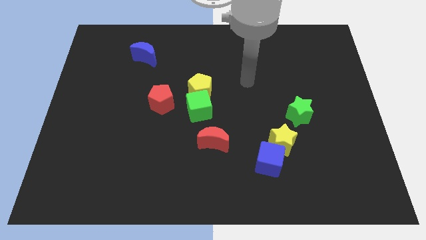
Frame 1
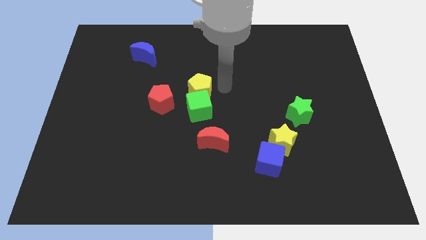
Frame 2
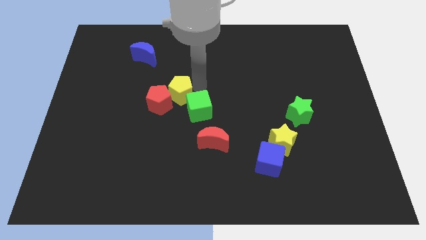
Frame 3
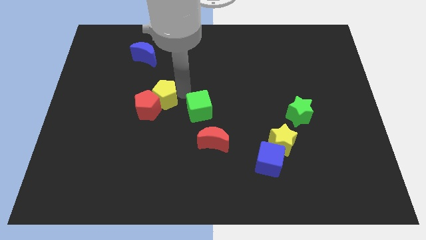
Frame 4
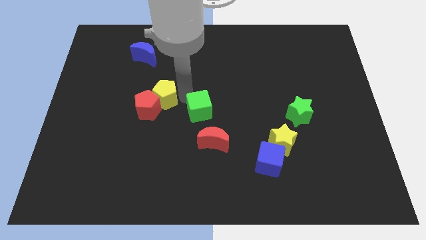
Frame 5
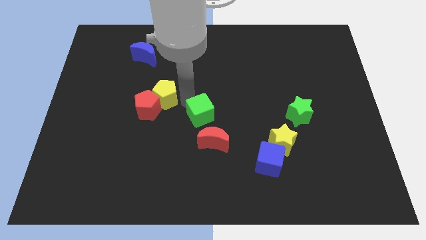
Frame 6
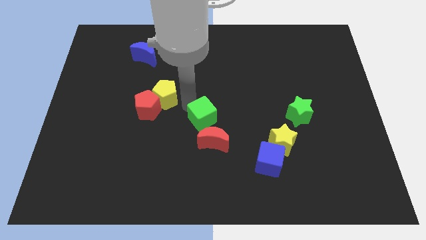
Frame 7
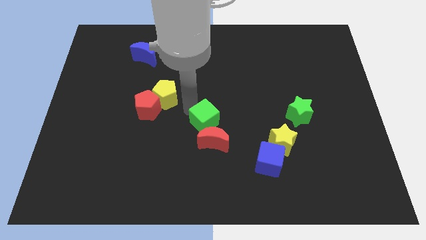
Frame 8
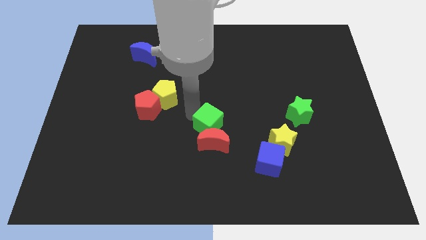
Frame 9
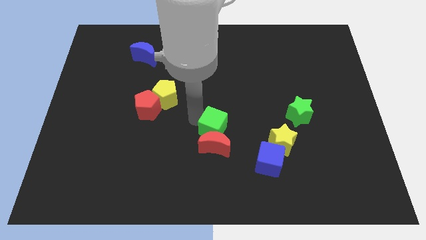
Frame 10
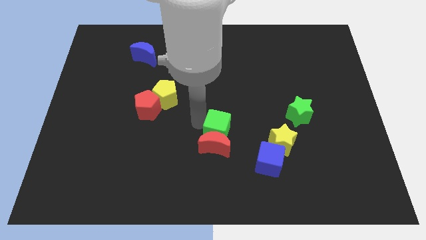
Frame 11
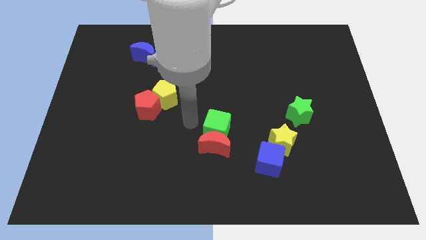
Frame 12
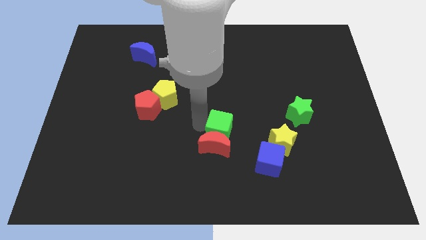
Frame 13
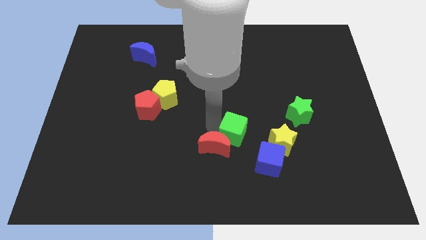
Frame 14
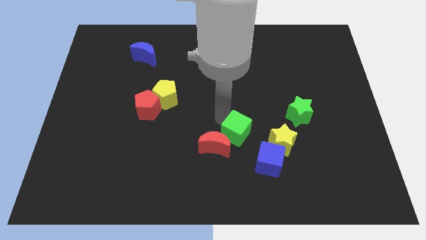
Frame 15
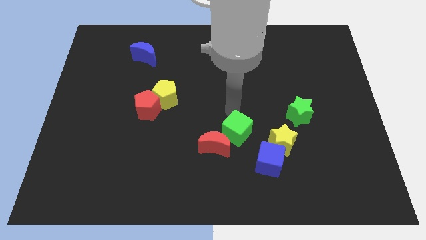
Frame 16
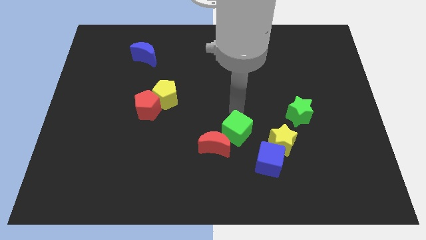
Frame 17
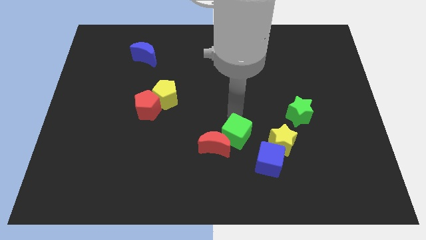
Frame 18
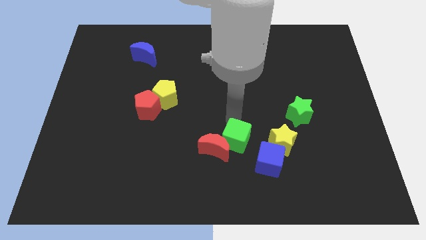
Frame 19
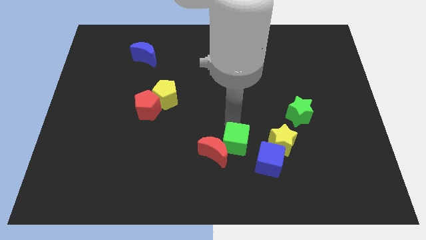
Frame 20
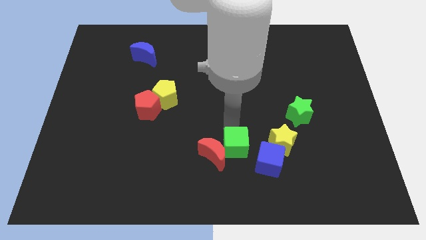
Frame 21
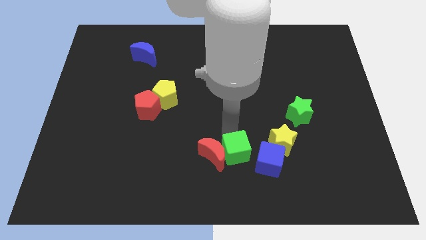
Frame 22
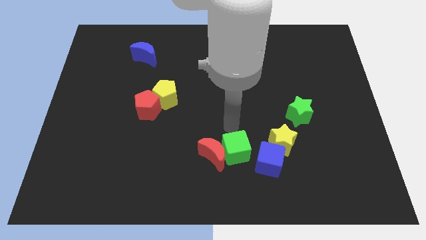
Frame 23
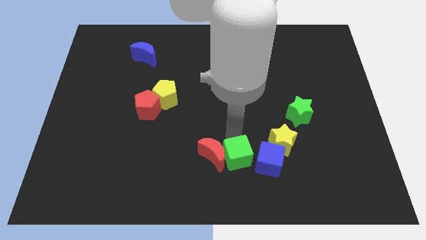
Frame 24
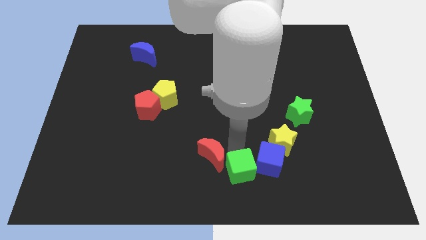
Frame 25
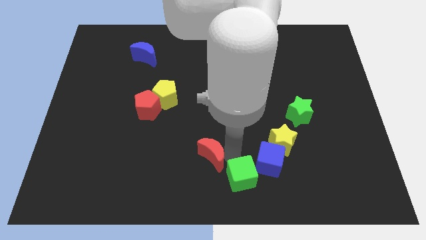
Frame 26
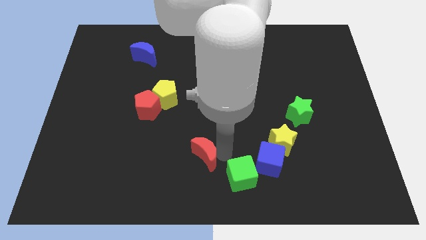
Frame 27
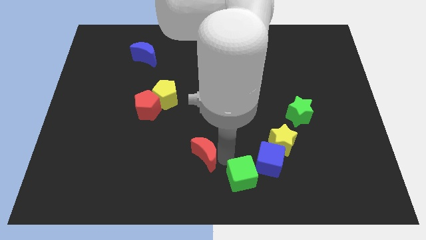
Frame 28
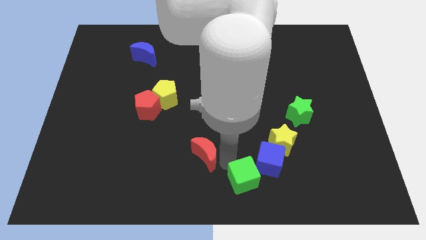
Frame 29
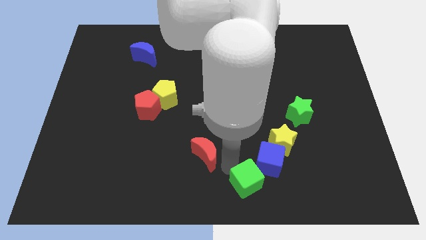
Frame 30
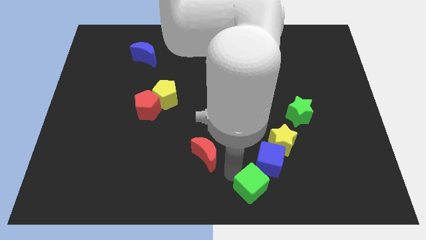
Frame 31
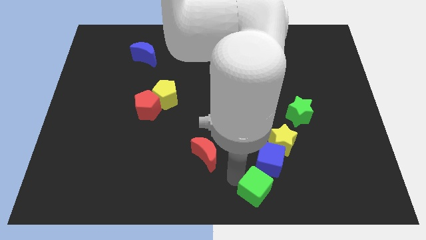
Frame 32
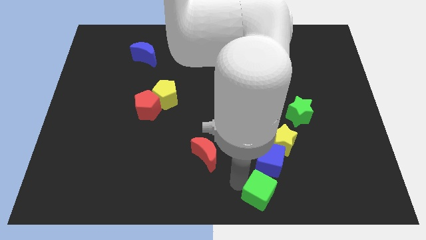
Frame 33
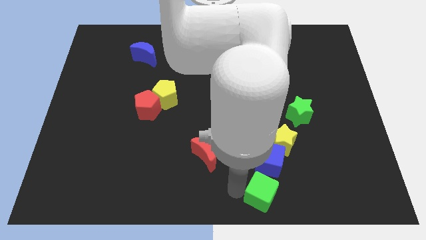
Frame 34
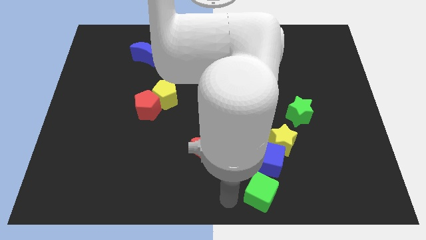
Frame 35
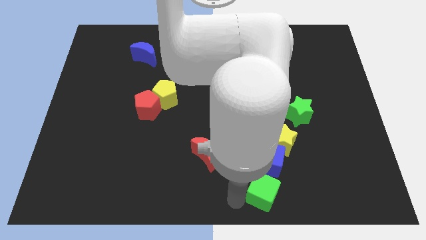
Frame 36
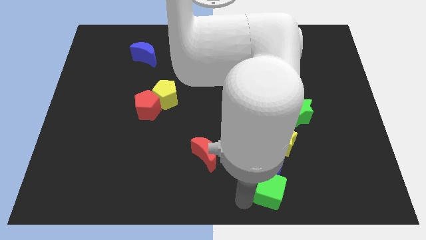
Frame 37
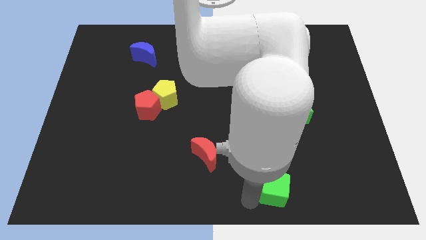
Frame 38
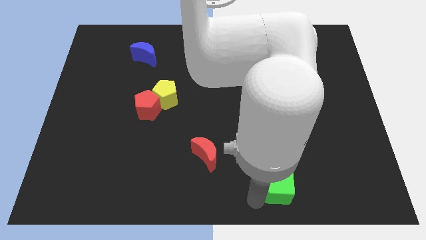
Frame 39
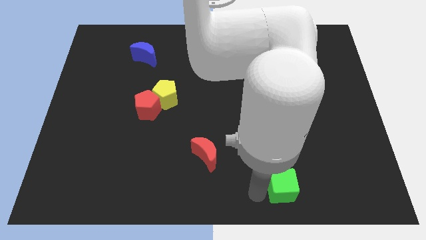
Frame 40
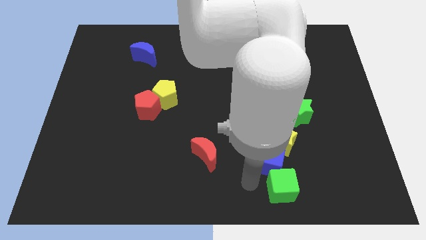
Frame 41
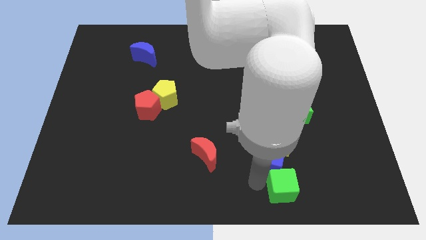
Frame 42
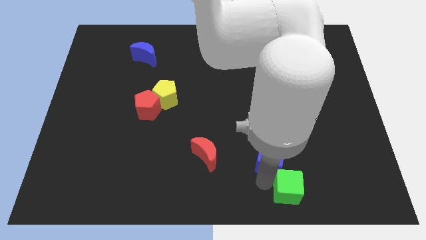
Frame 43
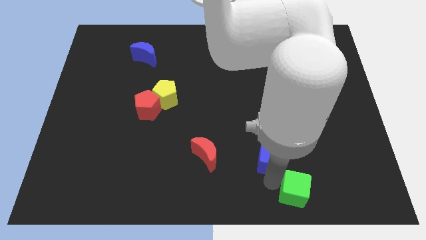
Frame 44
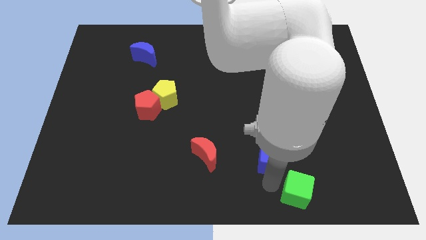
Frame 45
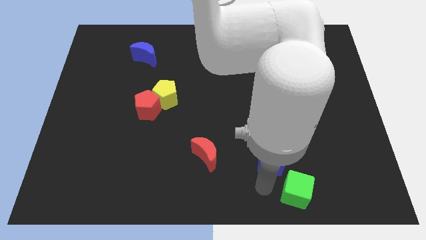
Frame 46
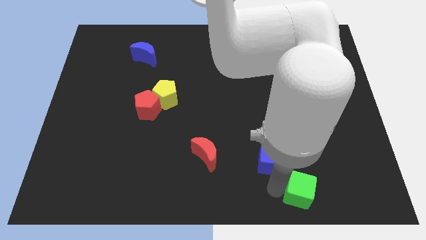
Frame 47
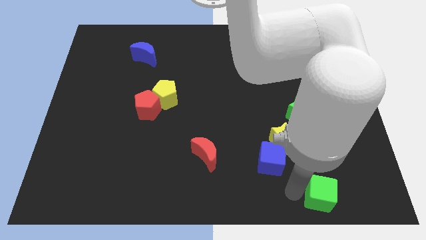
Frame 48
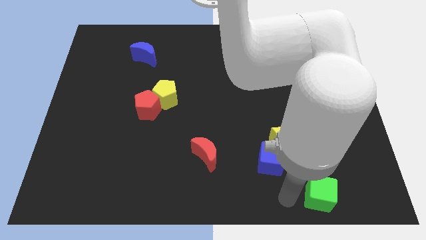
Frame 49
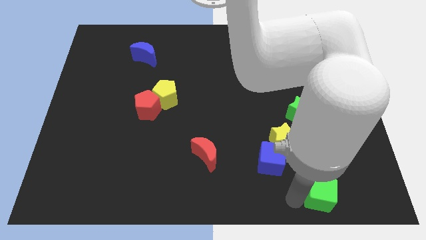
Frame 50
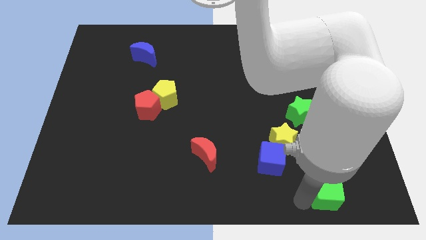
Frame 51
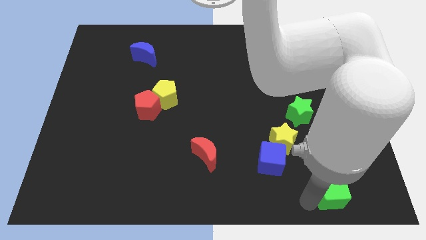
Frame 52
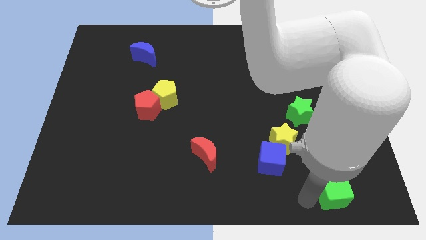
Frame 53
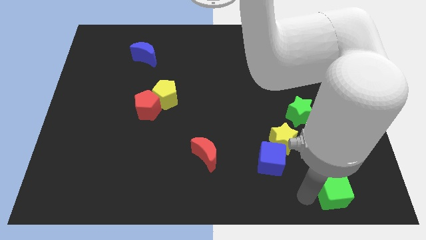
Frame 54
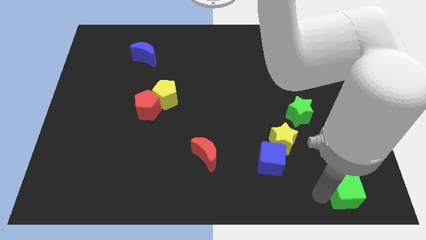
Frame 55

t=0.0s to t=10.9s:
move the green cube to the lower right corner

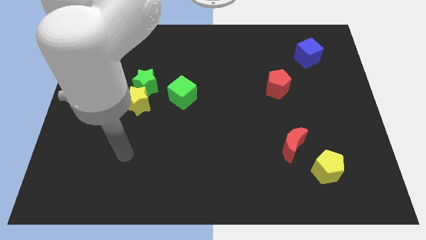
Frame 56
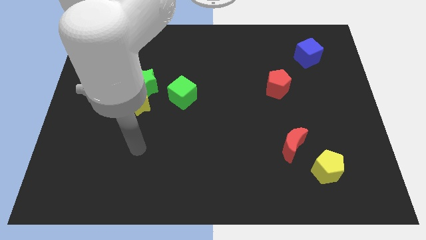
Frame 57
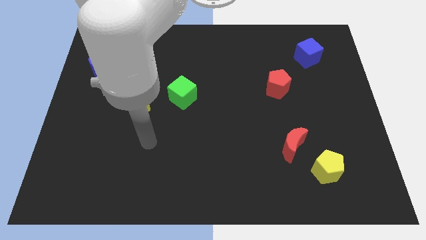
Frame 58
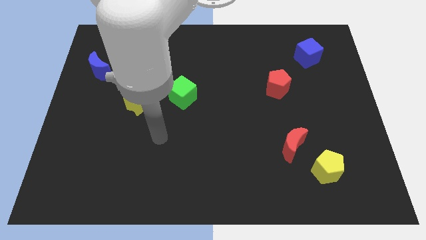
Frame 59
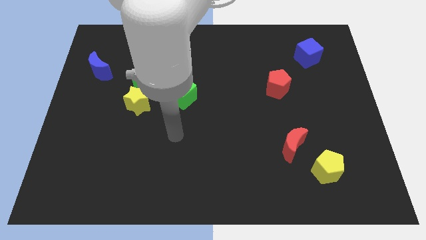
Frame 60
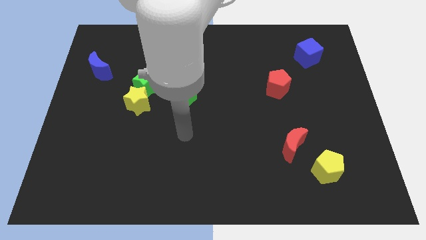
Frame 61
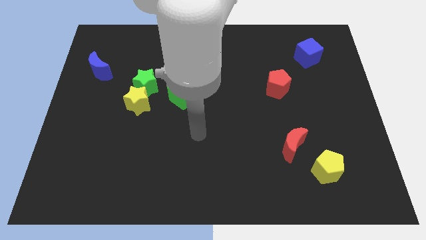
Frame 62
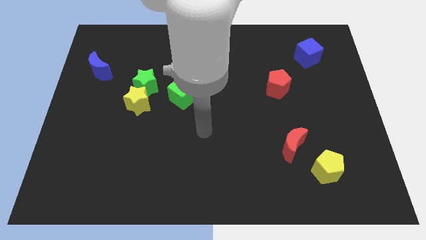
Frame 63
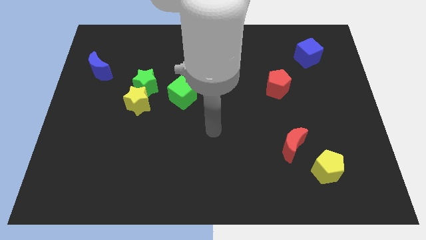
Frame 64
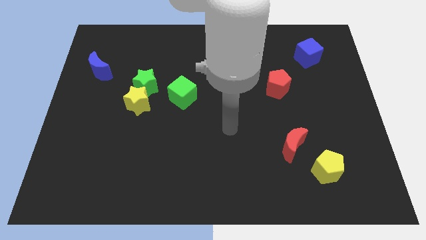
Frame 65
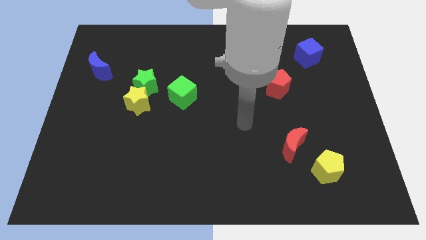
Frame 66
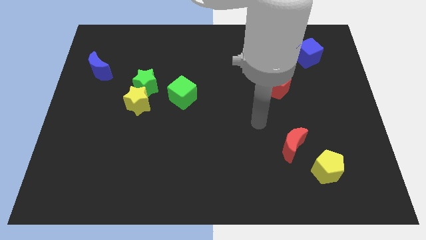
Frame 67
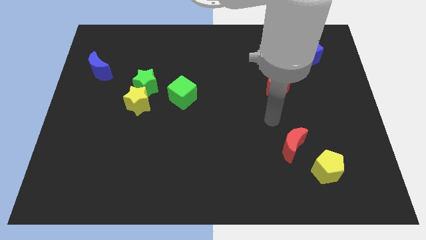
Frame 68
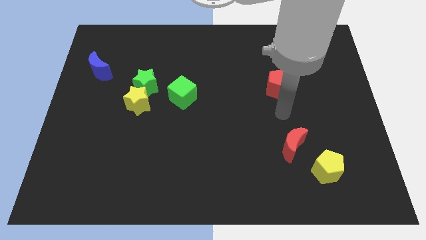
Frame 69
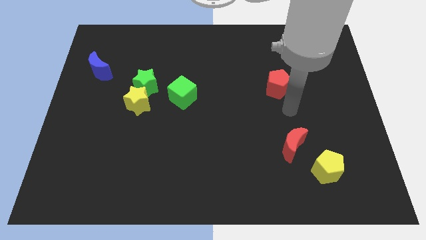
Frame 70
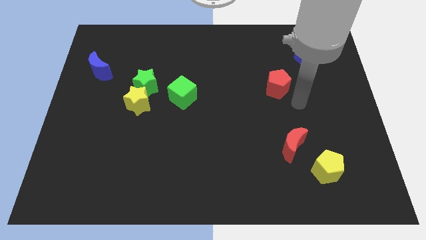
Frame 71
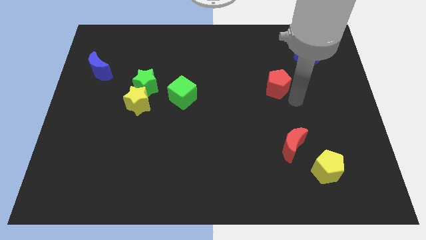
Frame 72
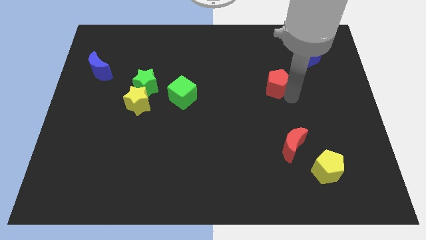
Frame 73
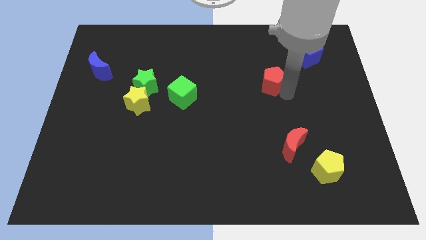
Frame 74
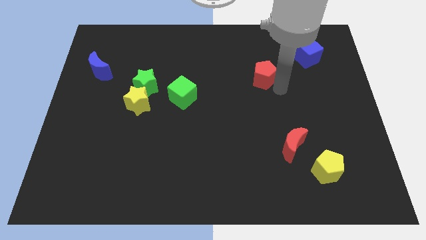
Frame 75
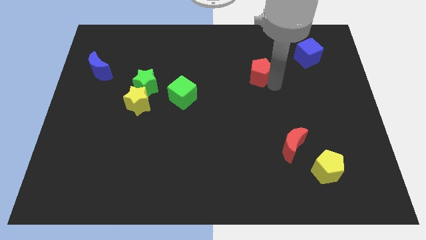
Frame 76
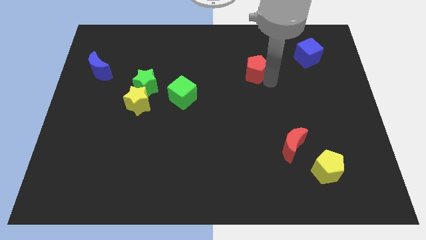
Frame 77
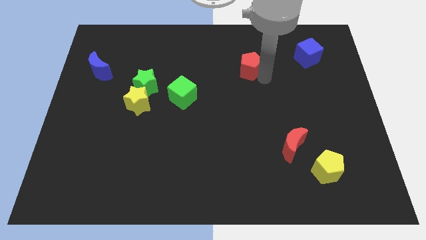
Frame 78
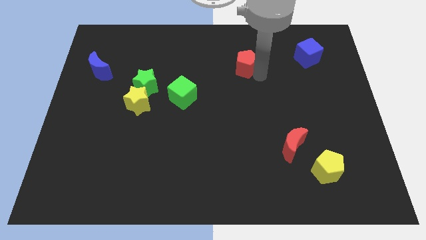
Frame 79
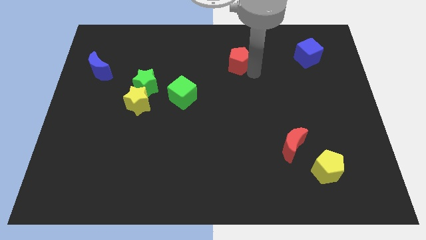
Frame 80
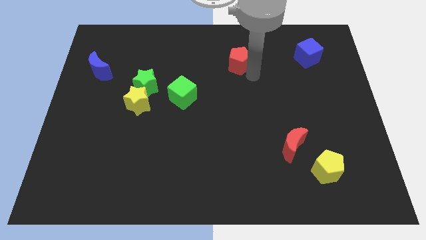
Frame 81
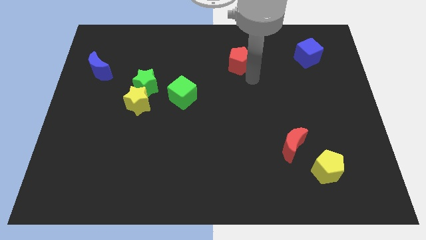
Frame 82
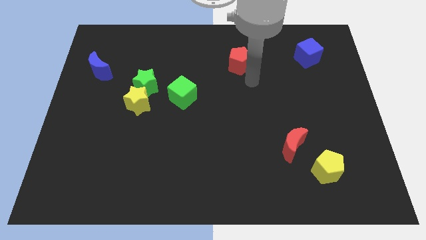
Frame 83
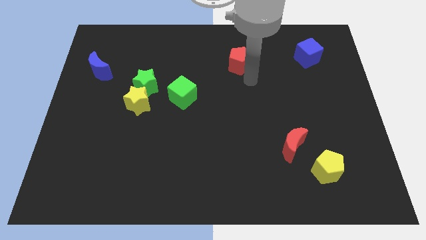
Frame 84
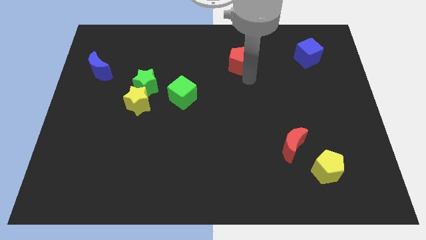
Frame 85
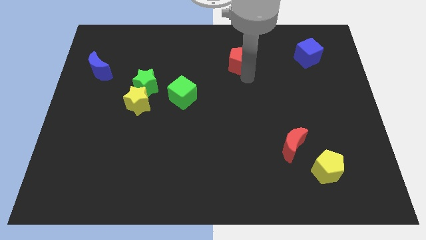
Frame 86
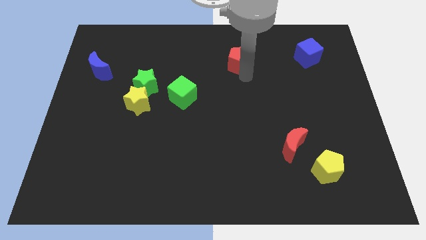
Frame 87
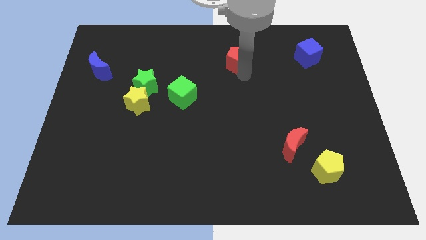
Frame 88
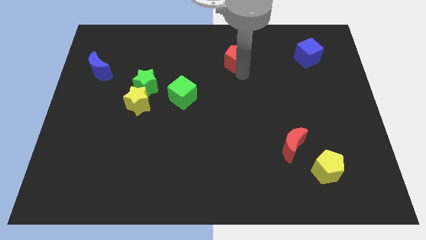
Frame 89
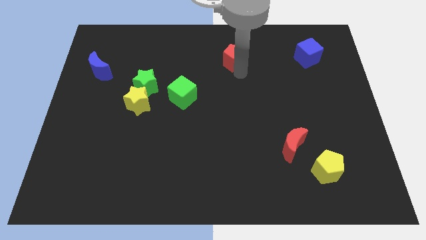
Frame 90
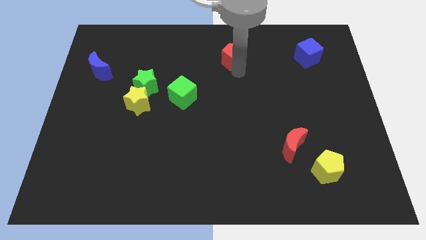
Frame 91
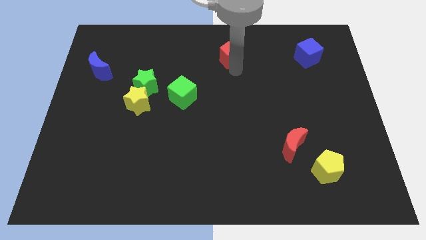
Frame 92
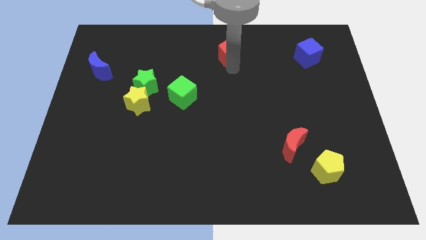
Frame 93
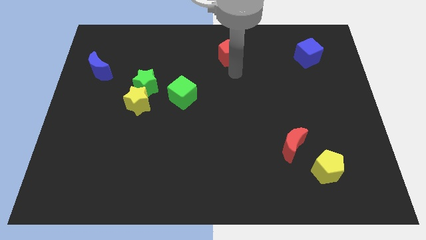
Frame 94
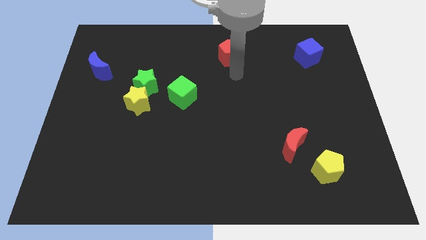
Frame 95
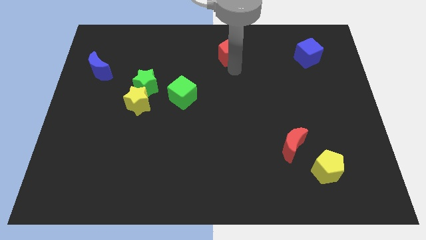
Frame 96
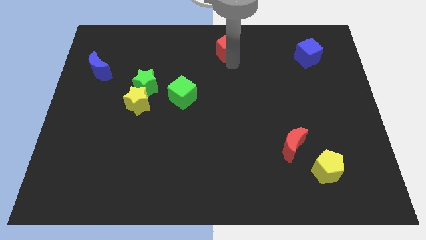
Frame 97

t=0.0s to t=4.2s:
put the red pentagon to the towards your base
